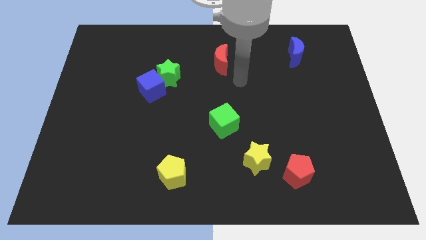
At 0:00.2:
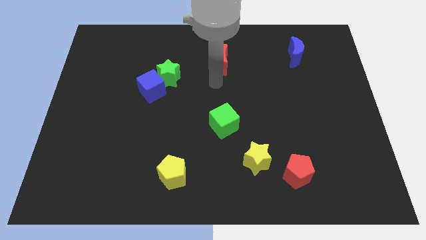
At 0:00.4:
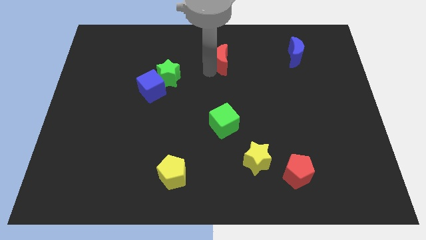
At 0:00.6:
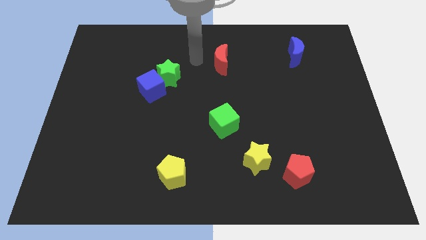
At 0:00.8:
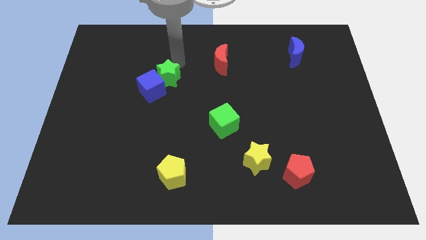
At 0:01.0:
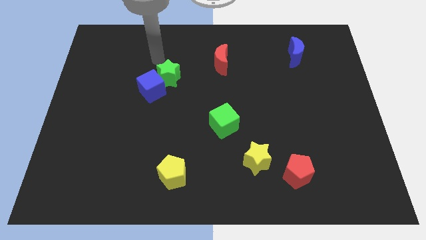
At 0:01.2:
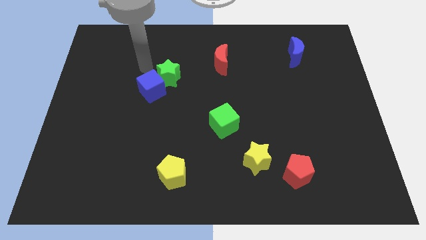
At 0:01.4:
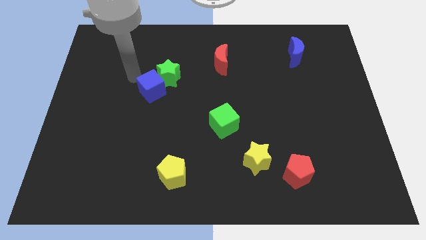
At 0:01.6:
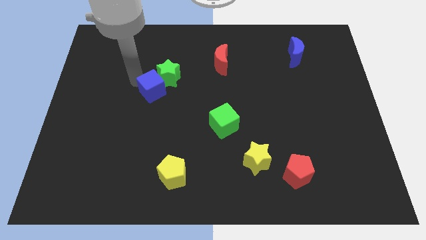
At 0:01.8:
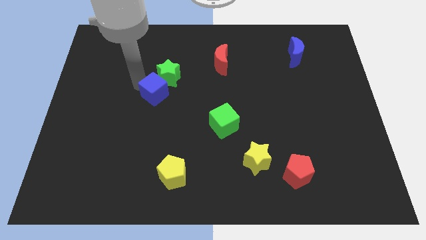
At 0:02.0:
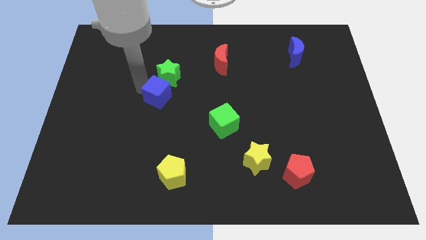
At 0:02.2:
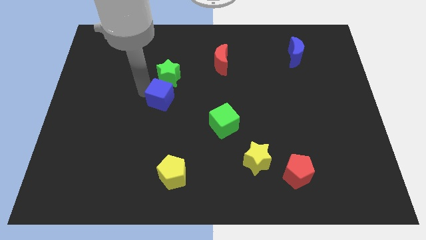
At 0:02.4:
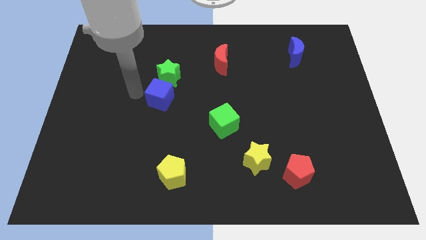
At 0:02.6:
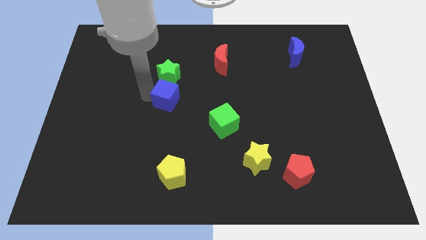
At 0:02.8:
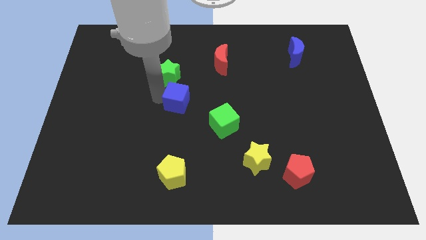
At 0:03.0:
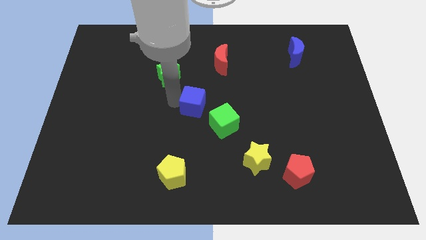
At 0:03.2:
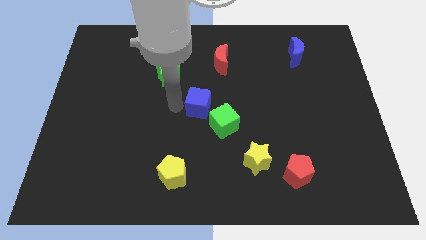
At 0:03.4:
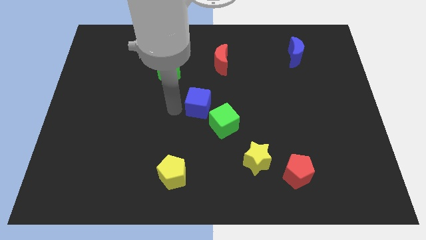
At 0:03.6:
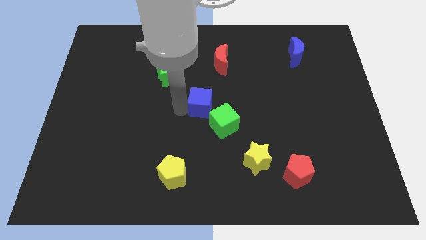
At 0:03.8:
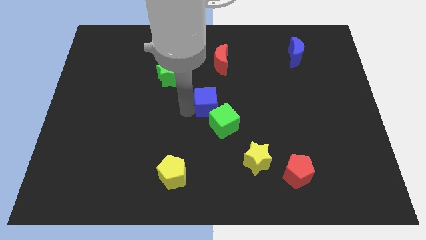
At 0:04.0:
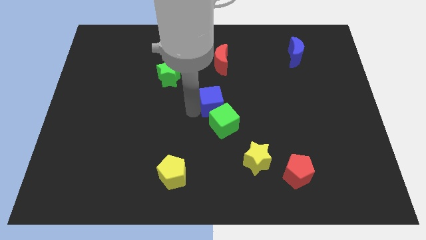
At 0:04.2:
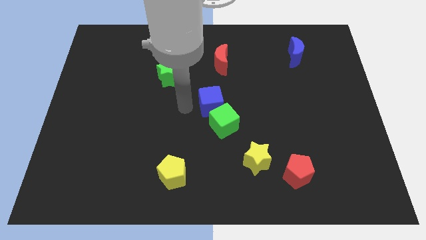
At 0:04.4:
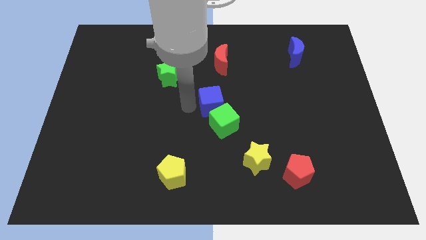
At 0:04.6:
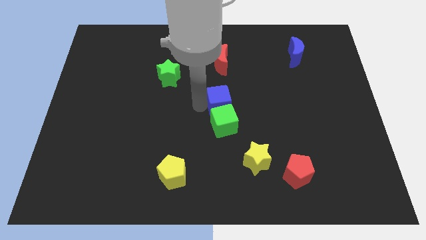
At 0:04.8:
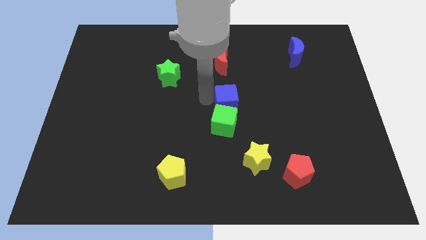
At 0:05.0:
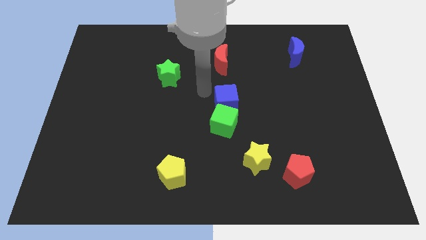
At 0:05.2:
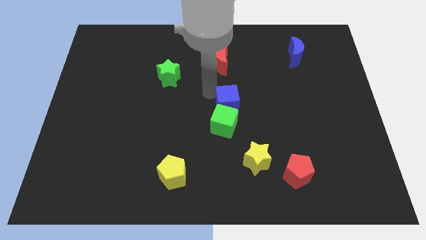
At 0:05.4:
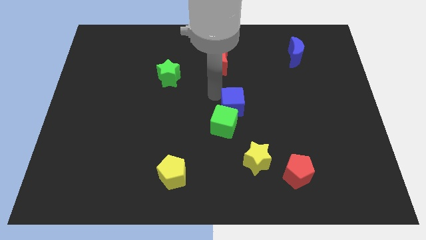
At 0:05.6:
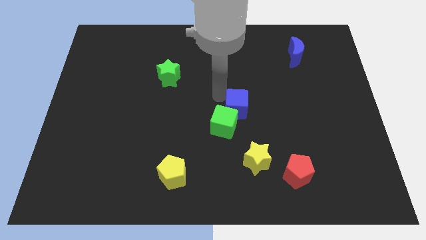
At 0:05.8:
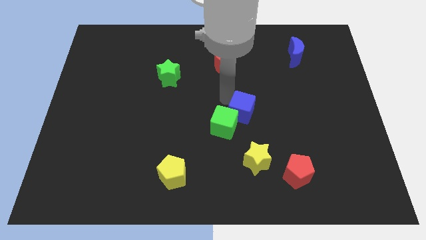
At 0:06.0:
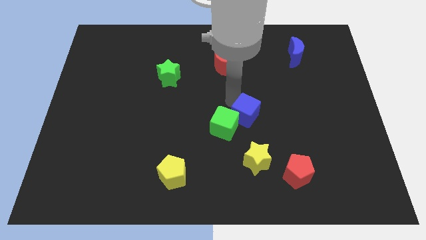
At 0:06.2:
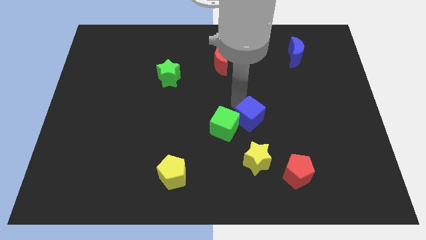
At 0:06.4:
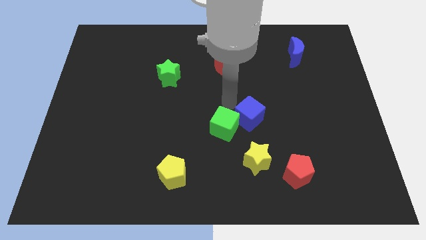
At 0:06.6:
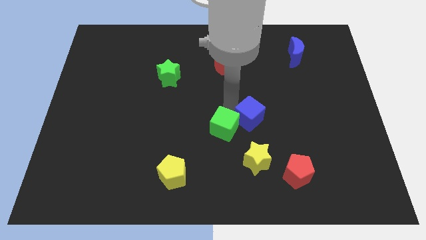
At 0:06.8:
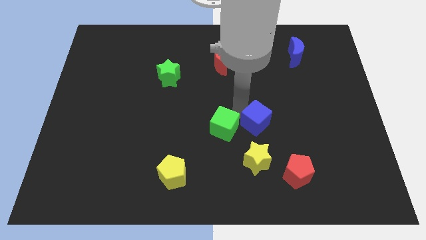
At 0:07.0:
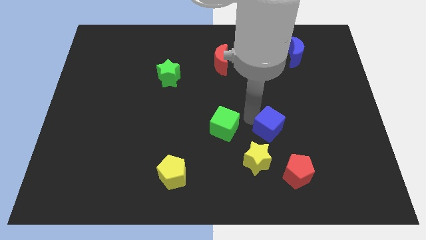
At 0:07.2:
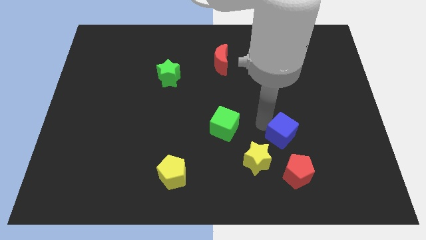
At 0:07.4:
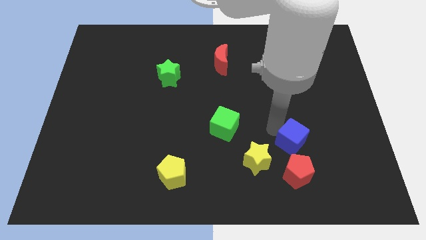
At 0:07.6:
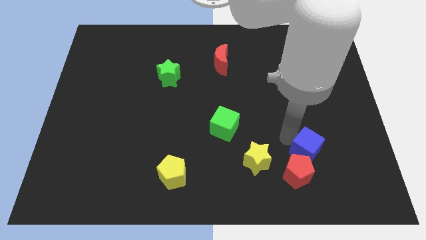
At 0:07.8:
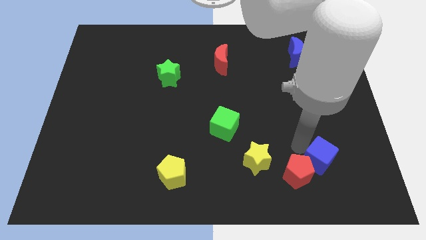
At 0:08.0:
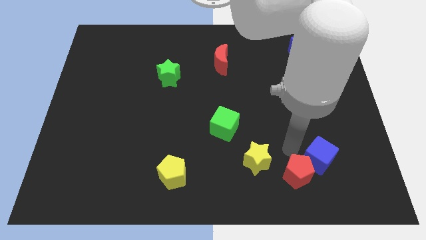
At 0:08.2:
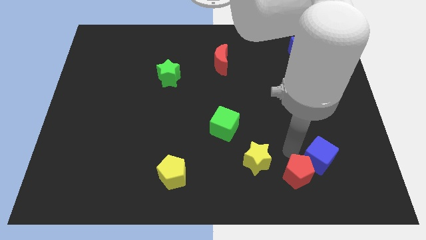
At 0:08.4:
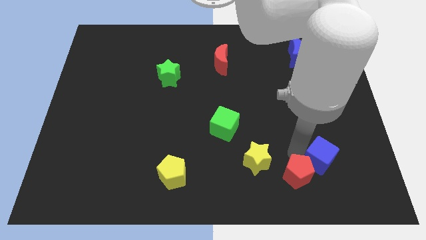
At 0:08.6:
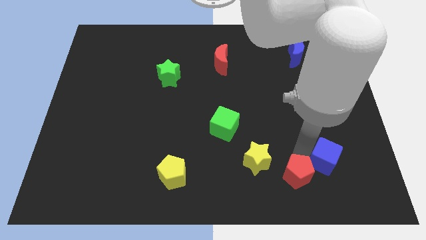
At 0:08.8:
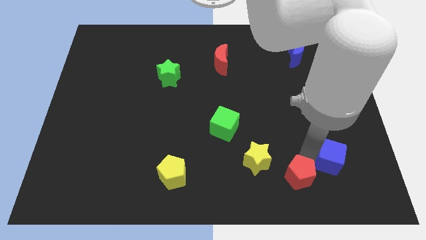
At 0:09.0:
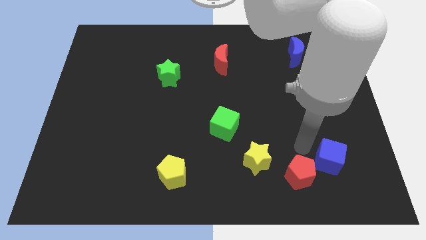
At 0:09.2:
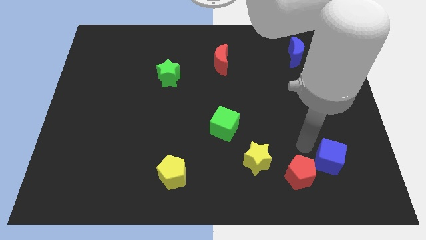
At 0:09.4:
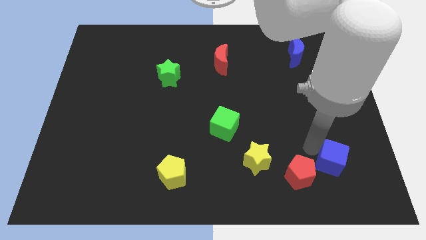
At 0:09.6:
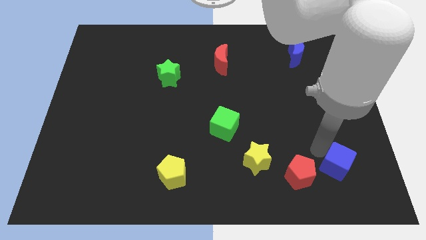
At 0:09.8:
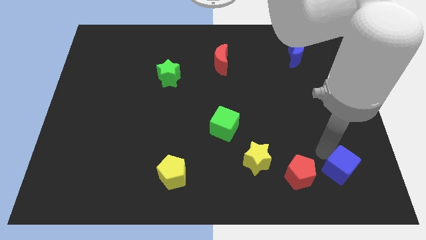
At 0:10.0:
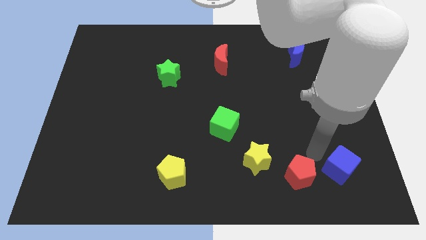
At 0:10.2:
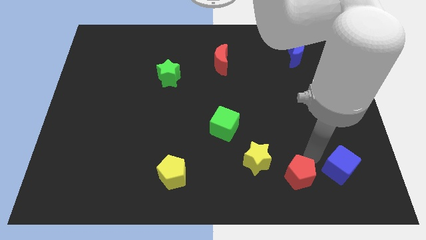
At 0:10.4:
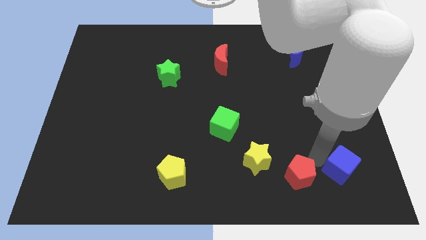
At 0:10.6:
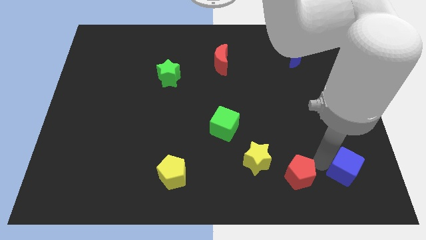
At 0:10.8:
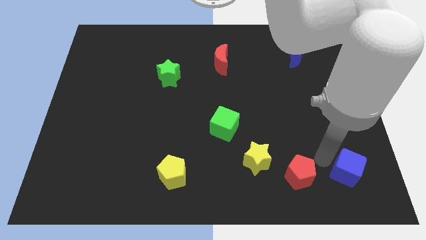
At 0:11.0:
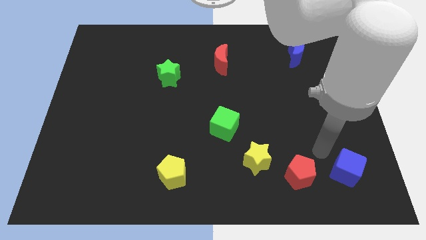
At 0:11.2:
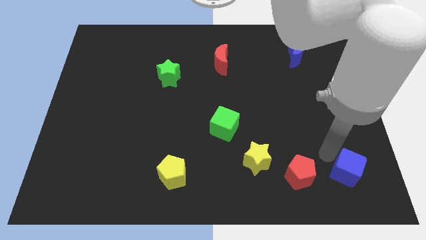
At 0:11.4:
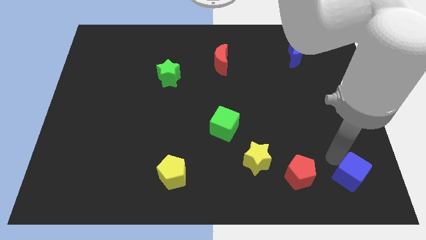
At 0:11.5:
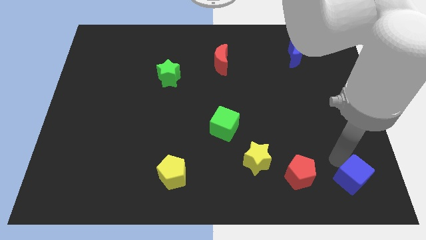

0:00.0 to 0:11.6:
move the blue cube to the bottom right of the board

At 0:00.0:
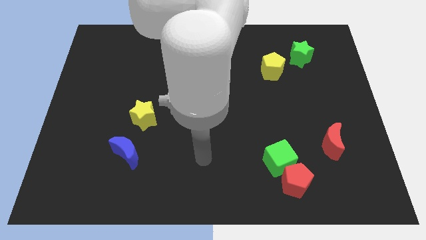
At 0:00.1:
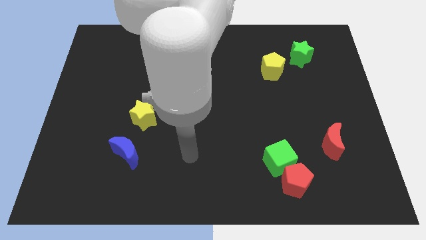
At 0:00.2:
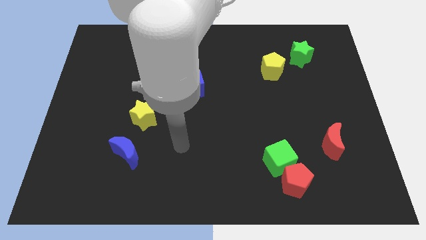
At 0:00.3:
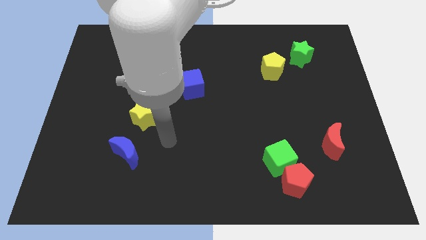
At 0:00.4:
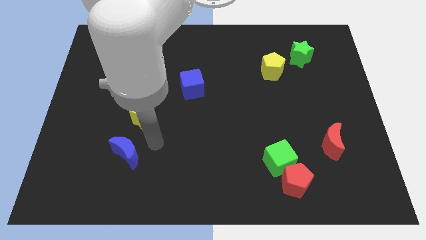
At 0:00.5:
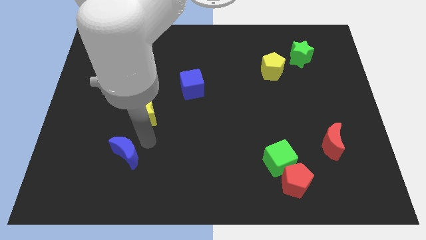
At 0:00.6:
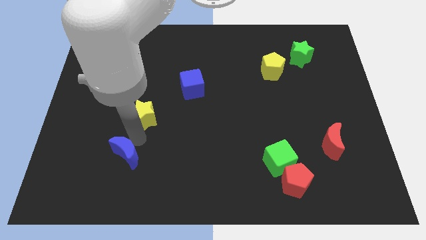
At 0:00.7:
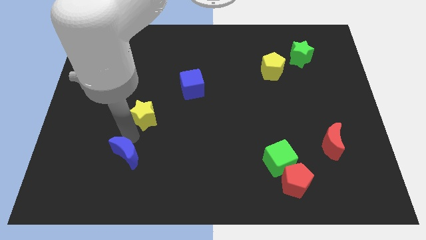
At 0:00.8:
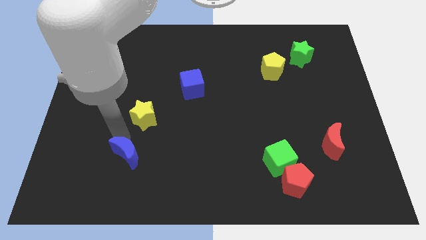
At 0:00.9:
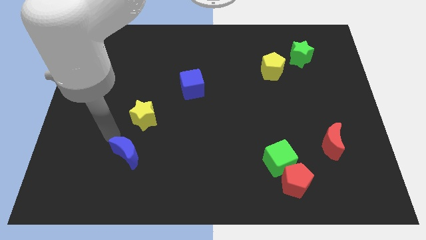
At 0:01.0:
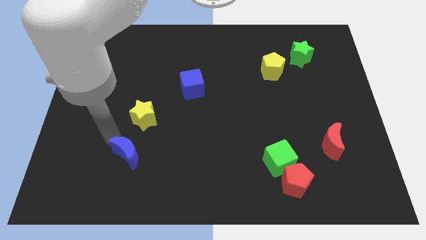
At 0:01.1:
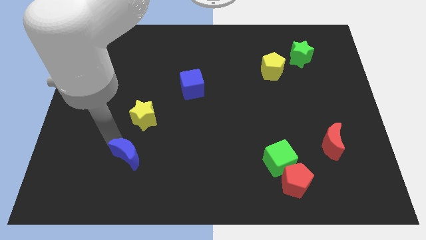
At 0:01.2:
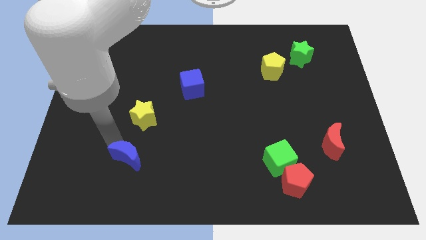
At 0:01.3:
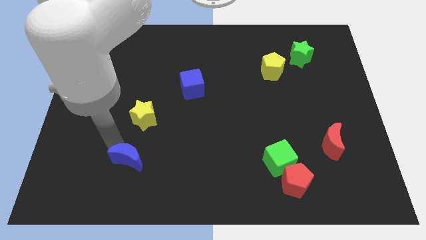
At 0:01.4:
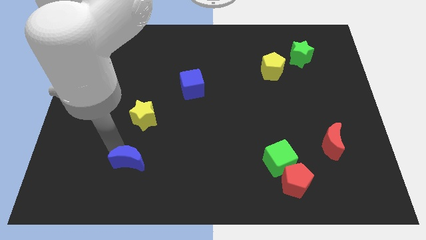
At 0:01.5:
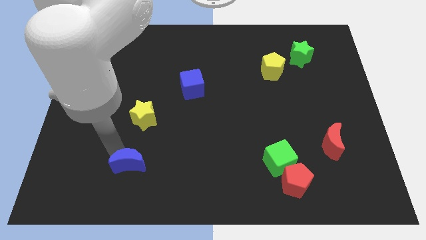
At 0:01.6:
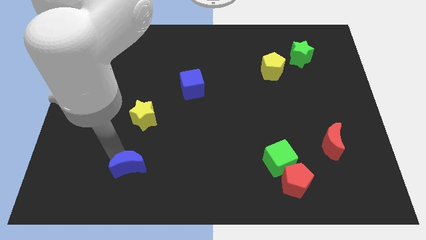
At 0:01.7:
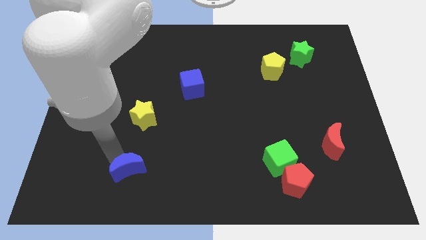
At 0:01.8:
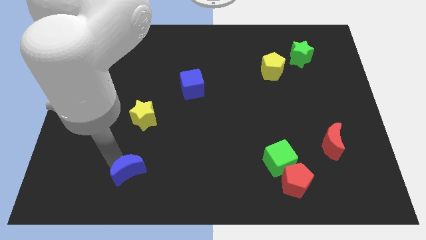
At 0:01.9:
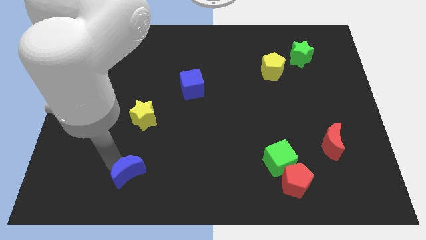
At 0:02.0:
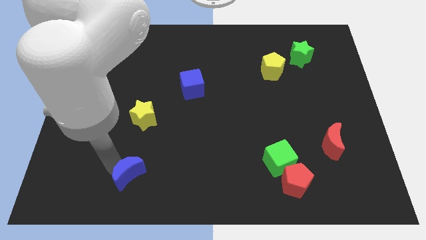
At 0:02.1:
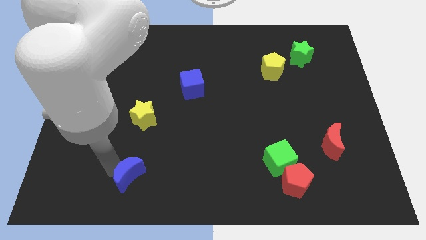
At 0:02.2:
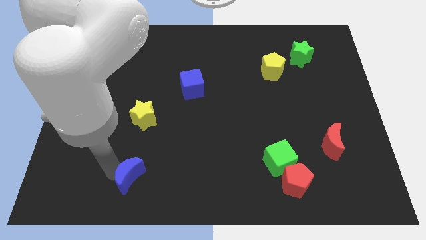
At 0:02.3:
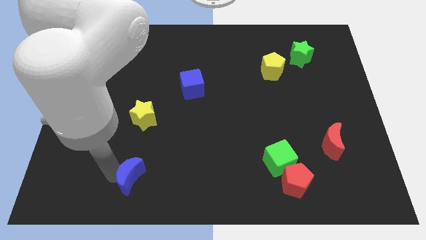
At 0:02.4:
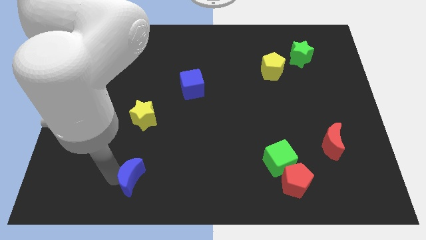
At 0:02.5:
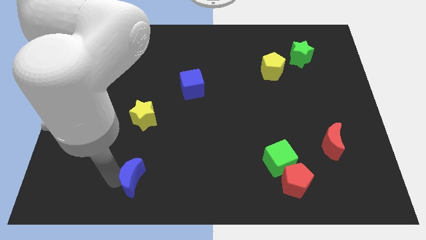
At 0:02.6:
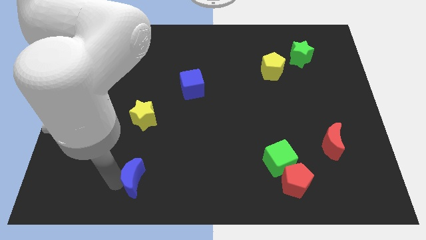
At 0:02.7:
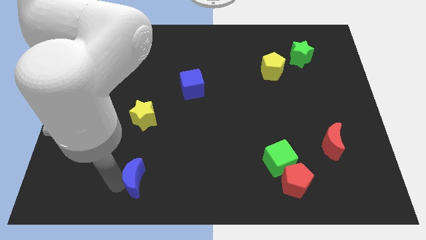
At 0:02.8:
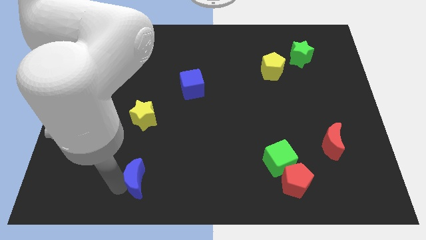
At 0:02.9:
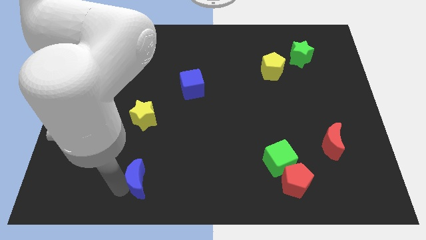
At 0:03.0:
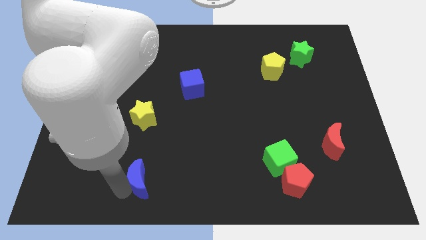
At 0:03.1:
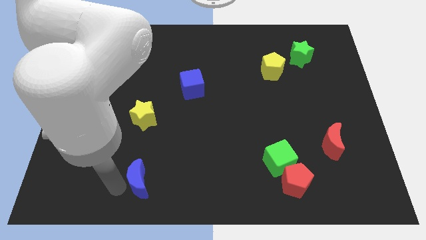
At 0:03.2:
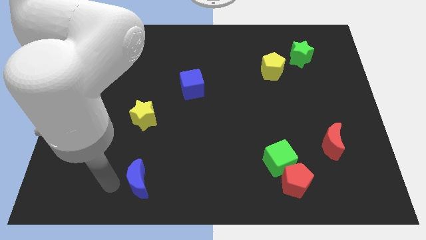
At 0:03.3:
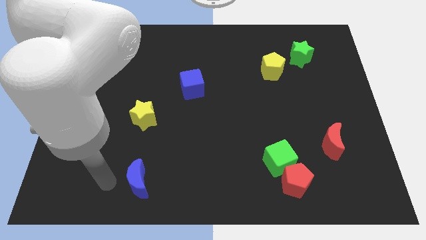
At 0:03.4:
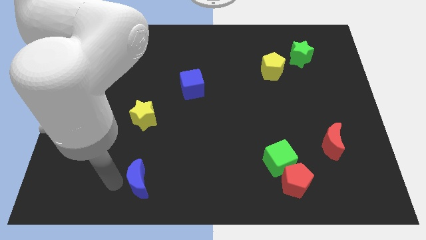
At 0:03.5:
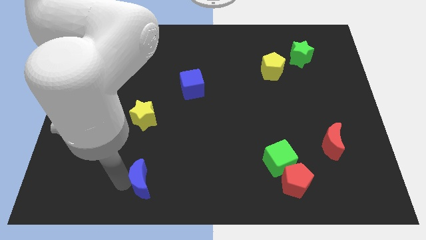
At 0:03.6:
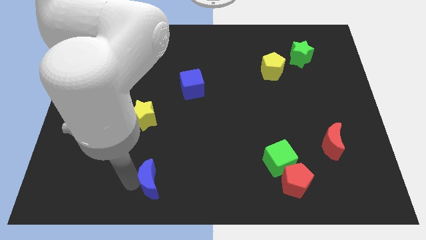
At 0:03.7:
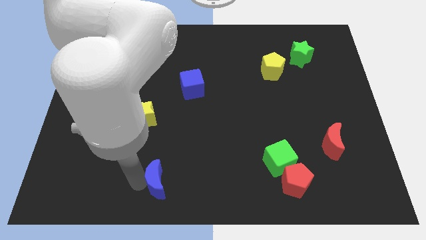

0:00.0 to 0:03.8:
move the blue moon to the bottom side
